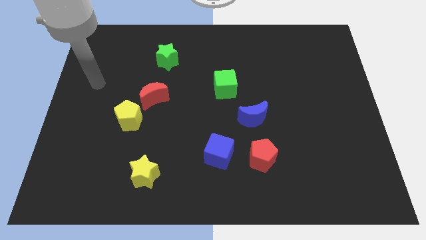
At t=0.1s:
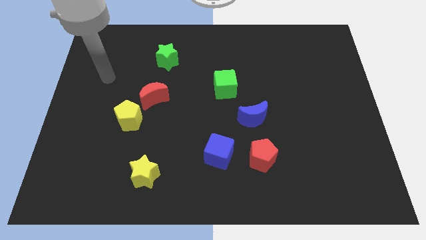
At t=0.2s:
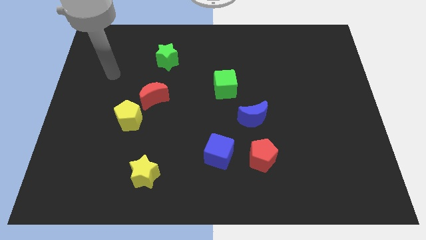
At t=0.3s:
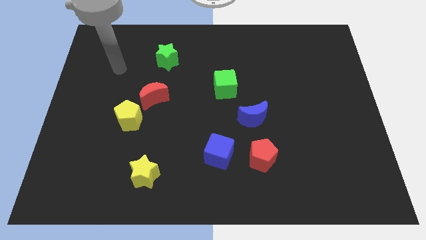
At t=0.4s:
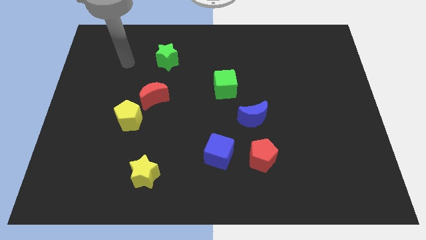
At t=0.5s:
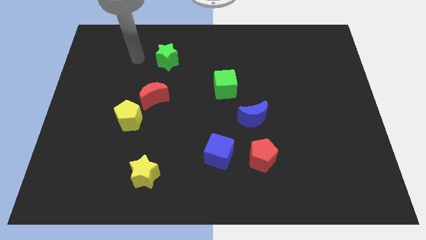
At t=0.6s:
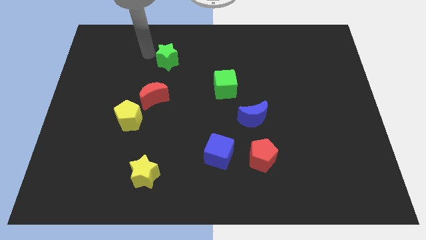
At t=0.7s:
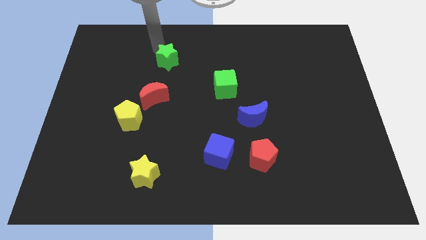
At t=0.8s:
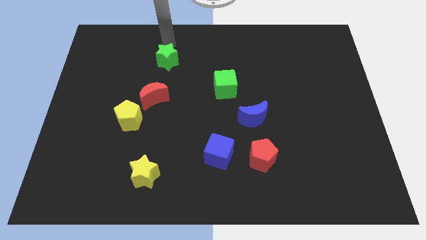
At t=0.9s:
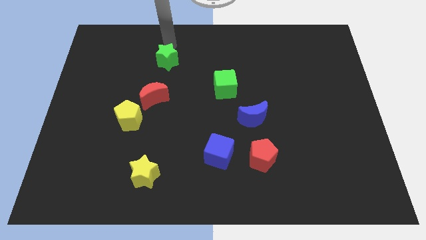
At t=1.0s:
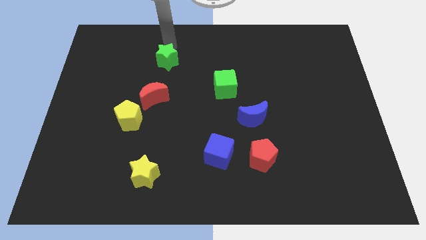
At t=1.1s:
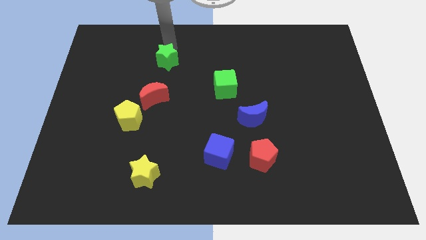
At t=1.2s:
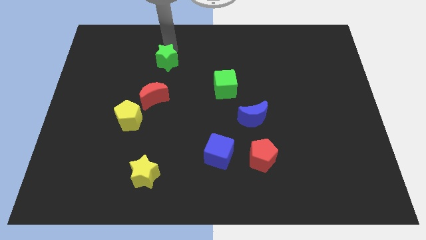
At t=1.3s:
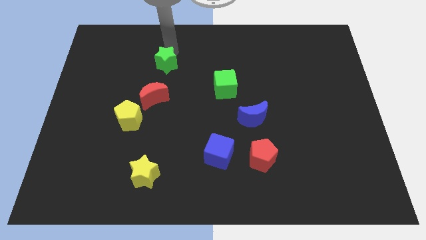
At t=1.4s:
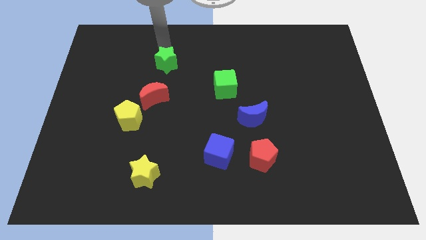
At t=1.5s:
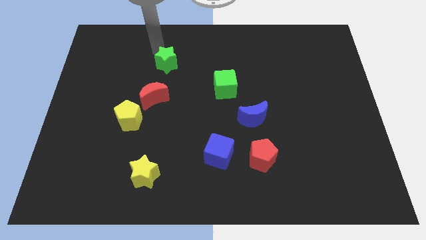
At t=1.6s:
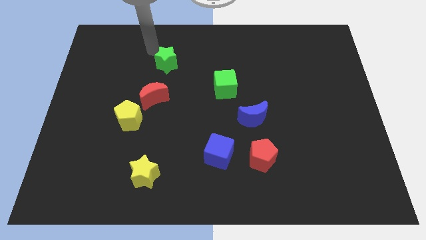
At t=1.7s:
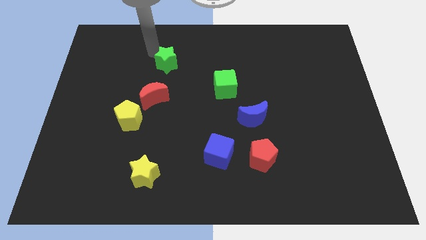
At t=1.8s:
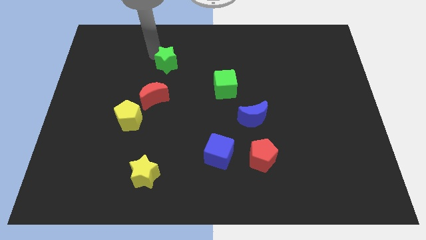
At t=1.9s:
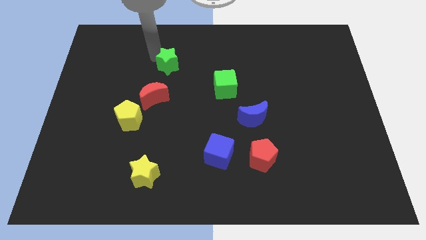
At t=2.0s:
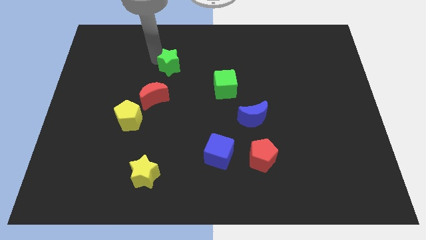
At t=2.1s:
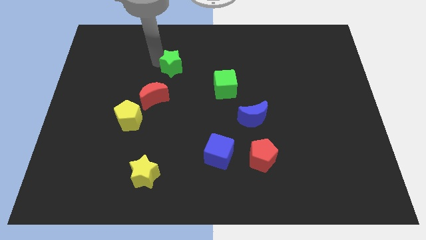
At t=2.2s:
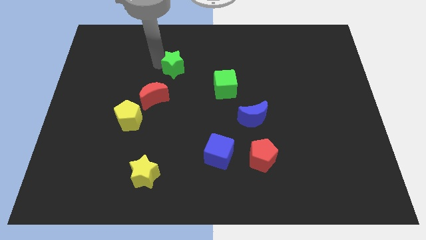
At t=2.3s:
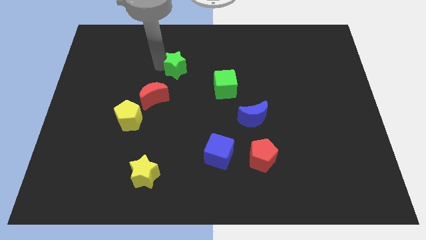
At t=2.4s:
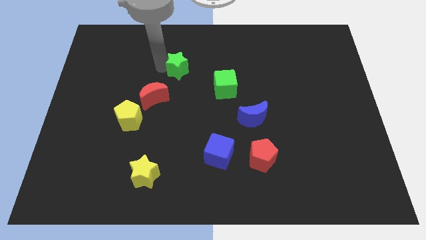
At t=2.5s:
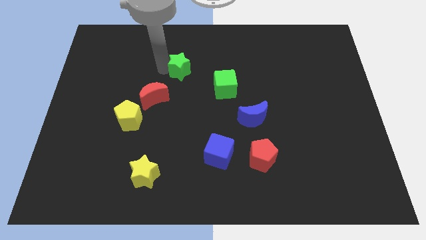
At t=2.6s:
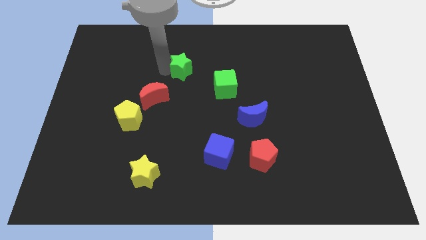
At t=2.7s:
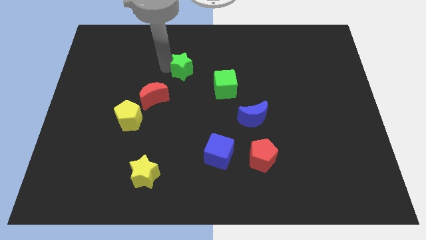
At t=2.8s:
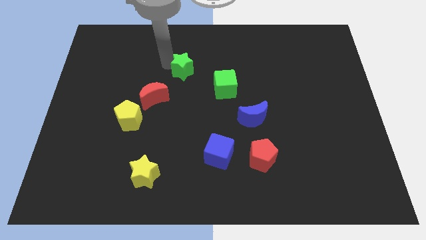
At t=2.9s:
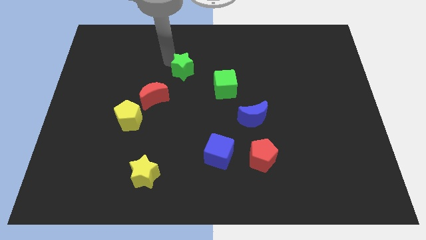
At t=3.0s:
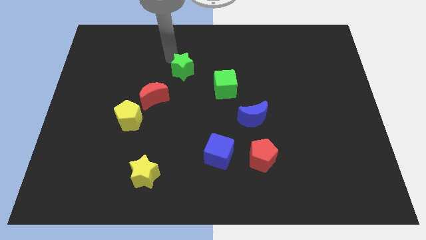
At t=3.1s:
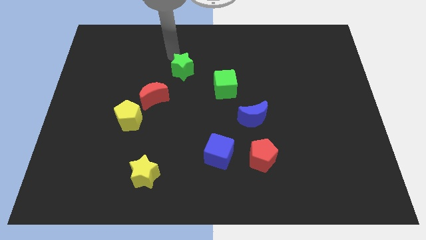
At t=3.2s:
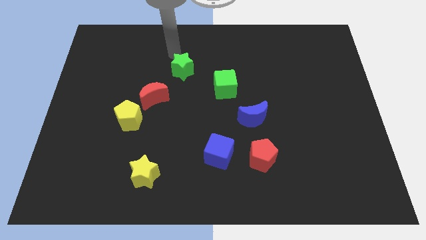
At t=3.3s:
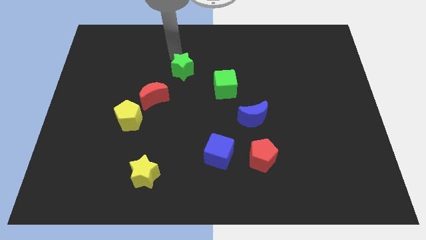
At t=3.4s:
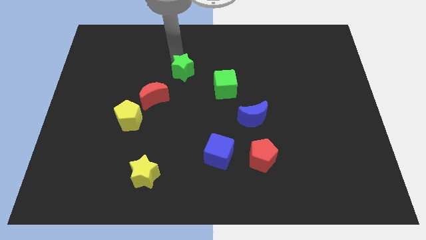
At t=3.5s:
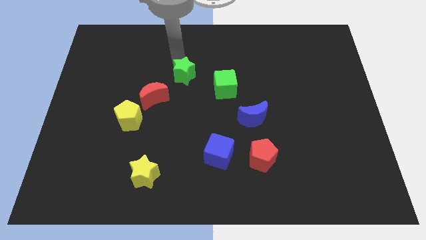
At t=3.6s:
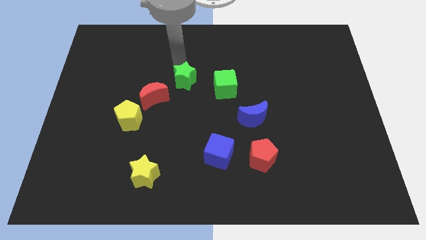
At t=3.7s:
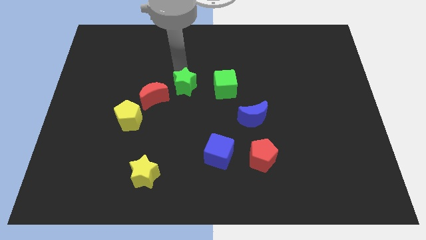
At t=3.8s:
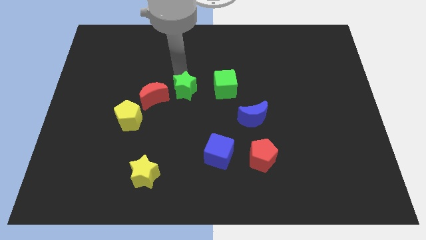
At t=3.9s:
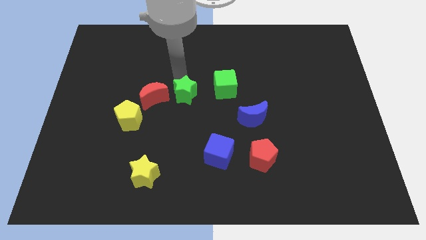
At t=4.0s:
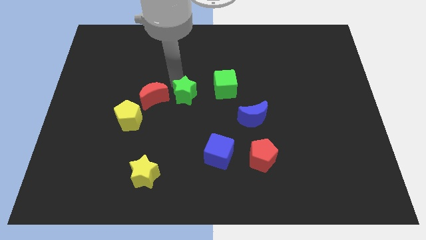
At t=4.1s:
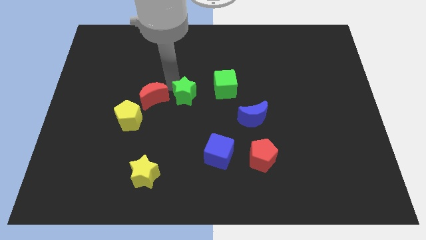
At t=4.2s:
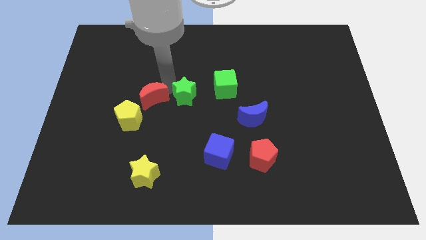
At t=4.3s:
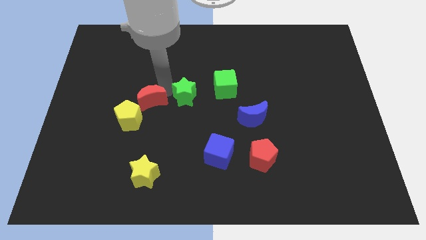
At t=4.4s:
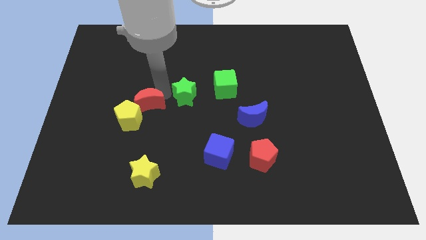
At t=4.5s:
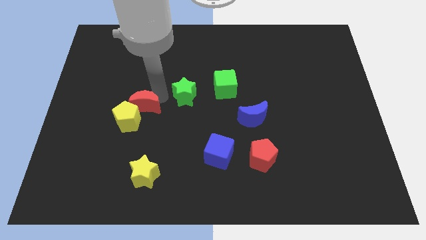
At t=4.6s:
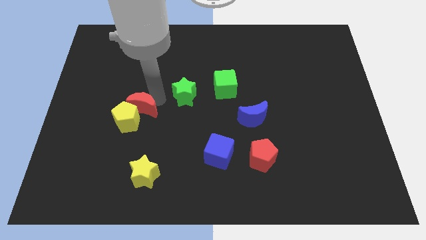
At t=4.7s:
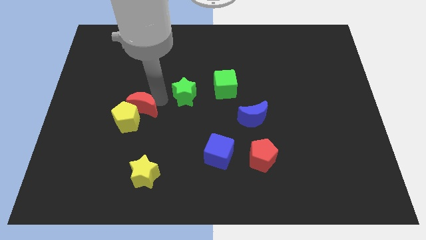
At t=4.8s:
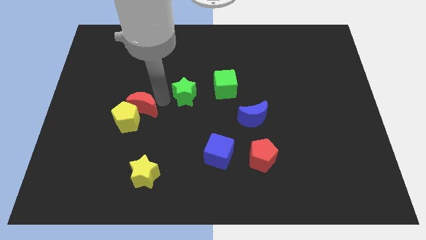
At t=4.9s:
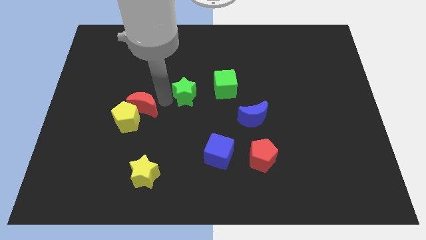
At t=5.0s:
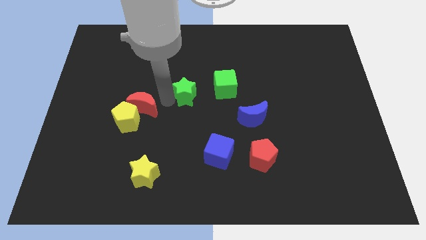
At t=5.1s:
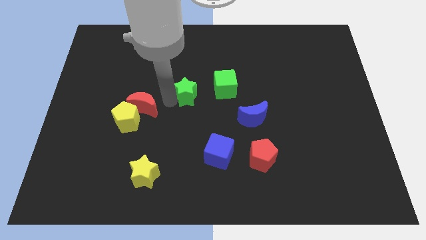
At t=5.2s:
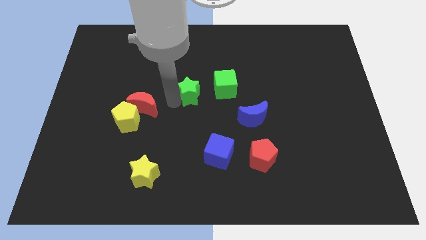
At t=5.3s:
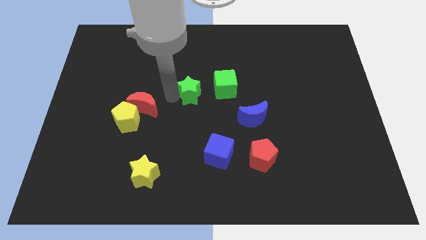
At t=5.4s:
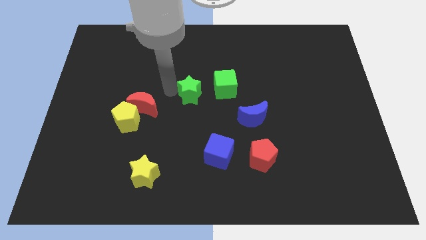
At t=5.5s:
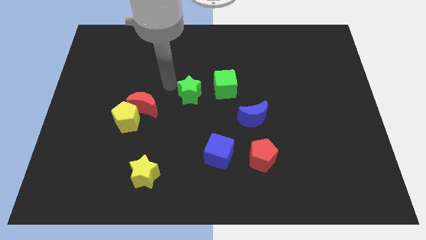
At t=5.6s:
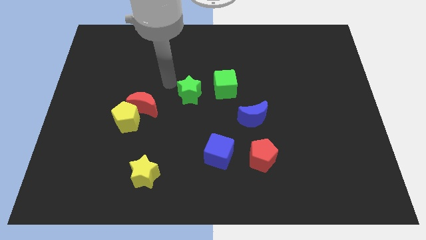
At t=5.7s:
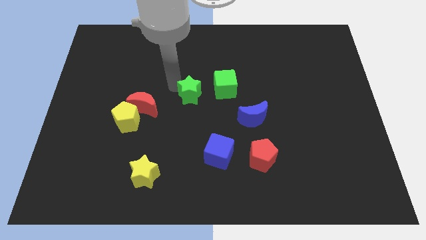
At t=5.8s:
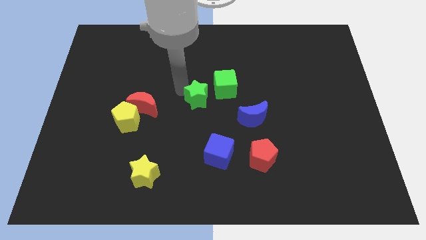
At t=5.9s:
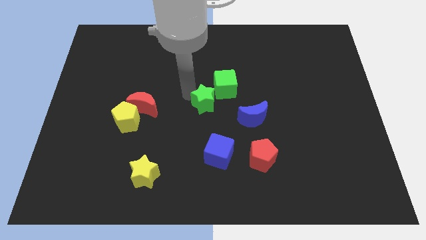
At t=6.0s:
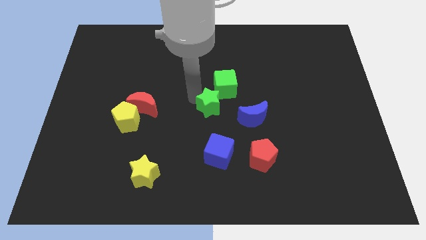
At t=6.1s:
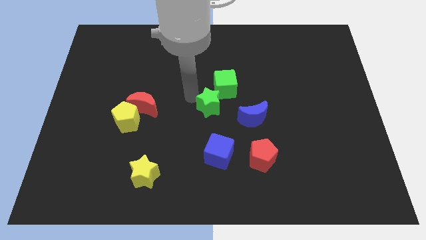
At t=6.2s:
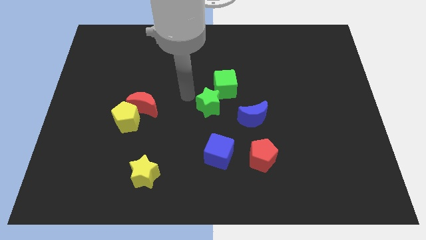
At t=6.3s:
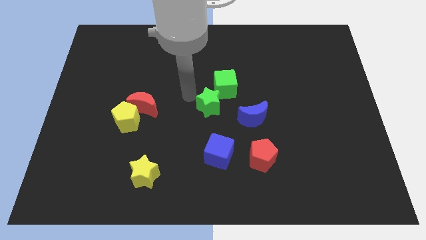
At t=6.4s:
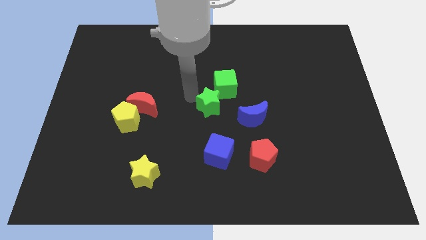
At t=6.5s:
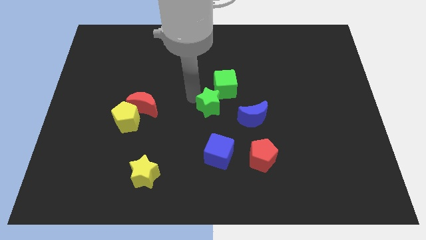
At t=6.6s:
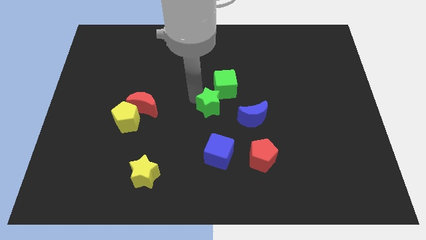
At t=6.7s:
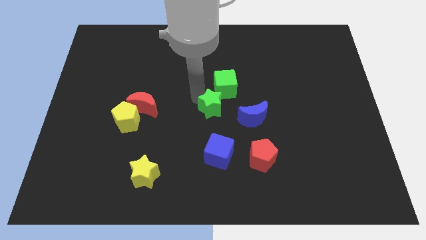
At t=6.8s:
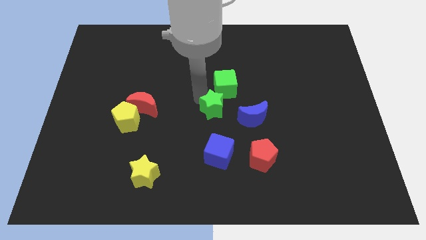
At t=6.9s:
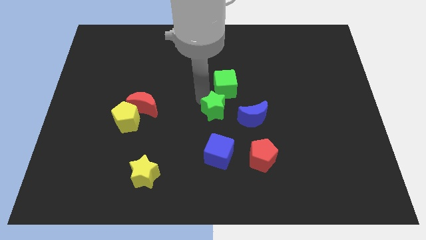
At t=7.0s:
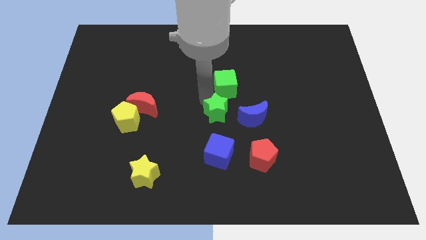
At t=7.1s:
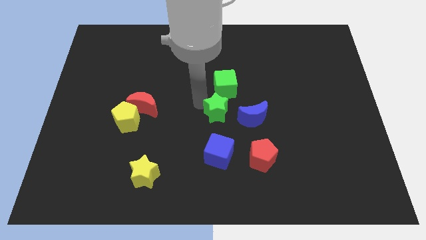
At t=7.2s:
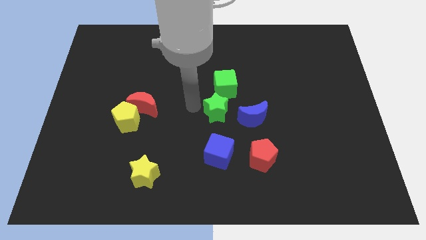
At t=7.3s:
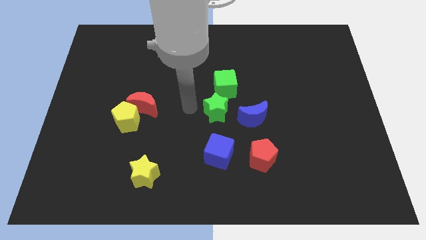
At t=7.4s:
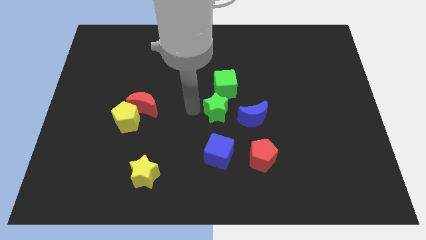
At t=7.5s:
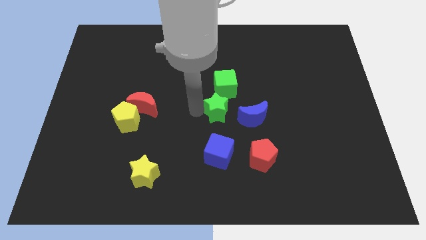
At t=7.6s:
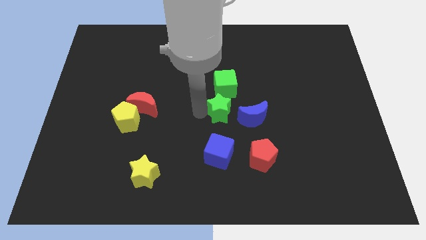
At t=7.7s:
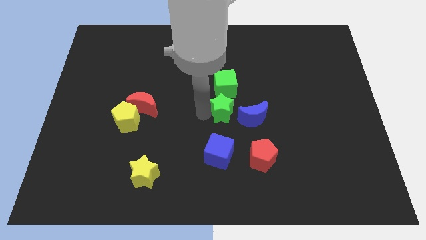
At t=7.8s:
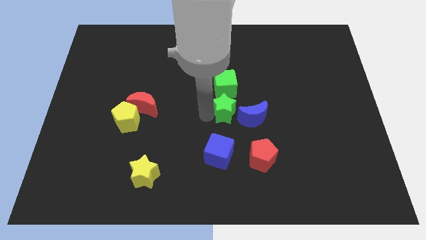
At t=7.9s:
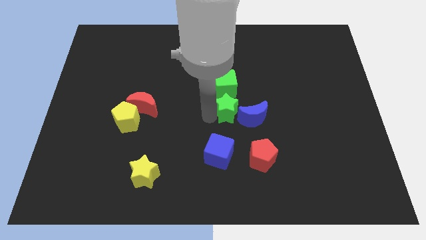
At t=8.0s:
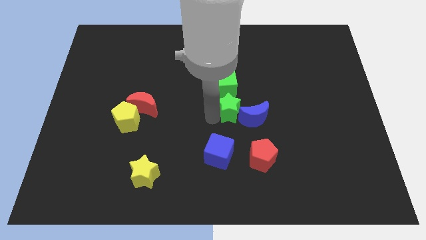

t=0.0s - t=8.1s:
push the green star towards the blue moon
